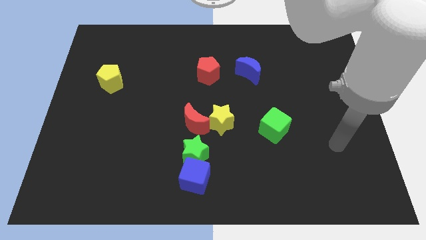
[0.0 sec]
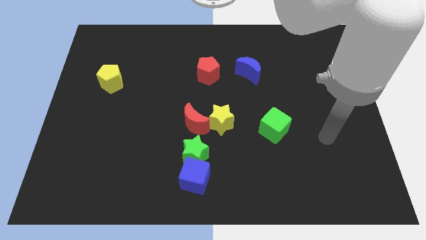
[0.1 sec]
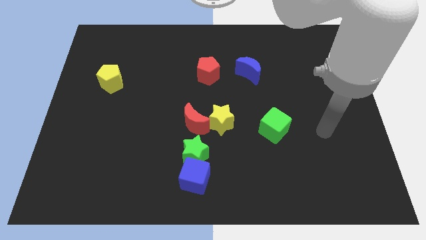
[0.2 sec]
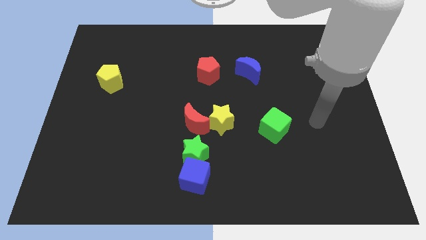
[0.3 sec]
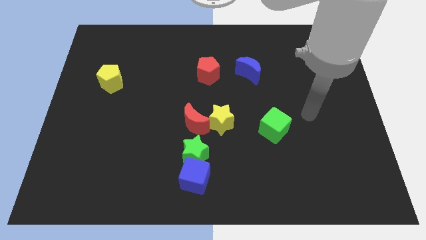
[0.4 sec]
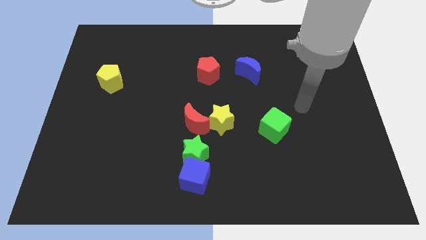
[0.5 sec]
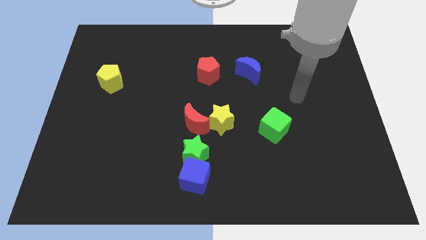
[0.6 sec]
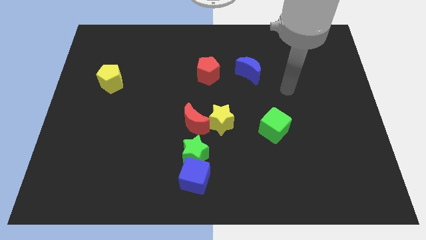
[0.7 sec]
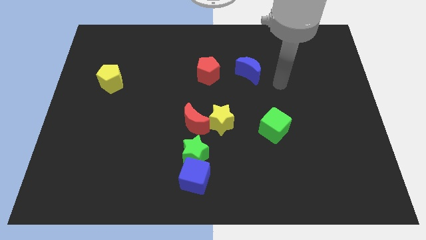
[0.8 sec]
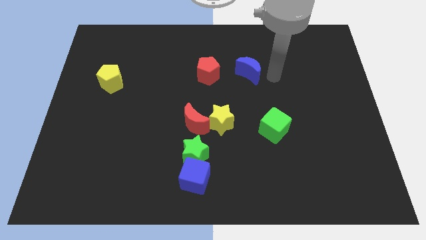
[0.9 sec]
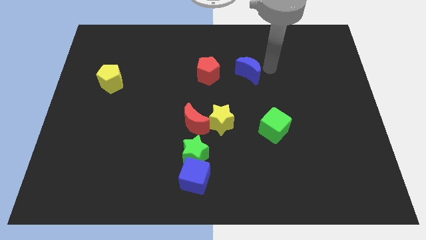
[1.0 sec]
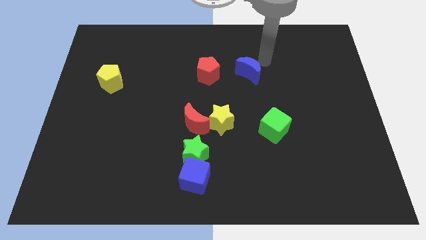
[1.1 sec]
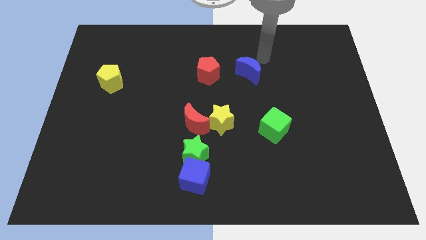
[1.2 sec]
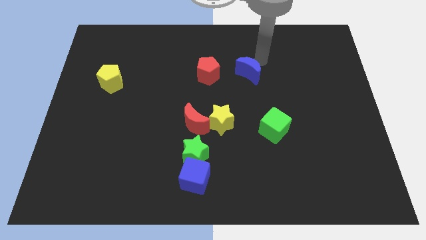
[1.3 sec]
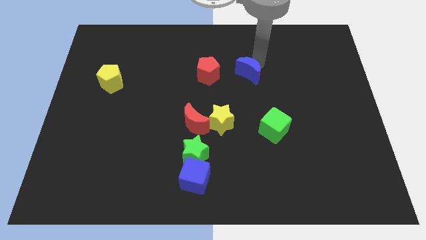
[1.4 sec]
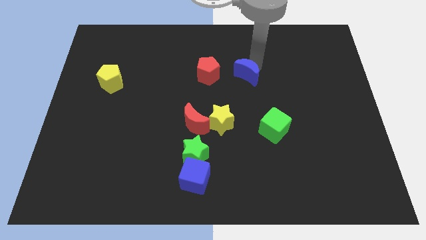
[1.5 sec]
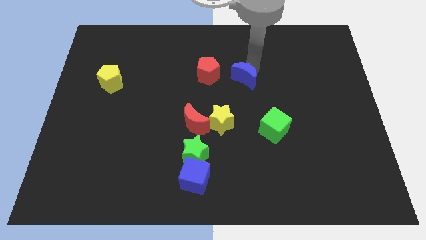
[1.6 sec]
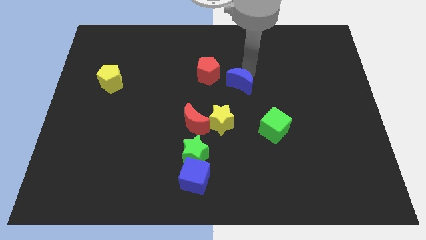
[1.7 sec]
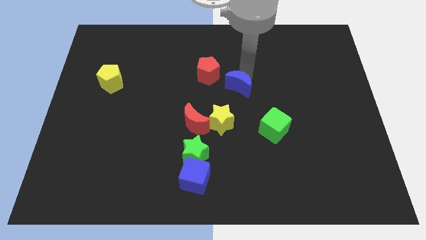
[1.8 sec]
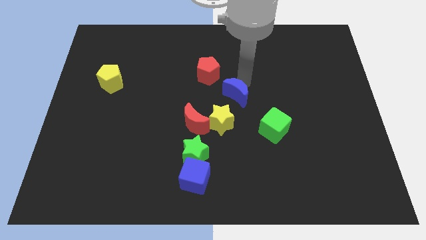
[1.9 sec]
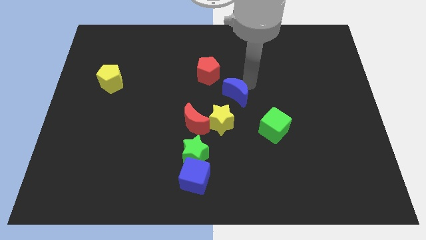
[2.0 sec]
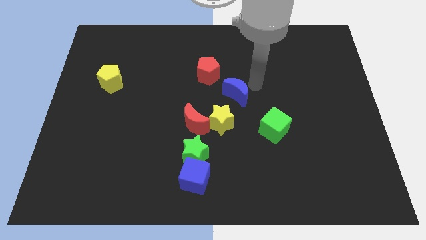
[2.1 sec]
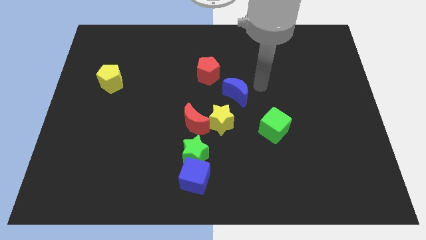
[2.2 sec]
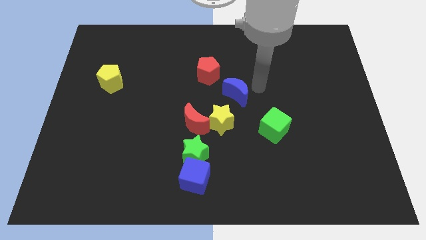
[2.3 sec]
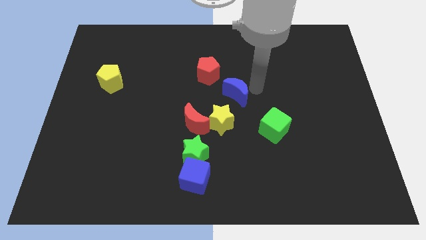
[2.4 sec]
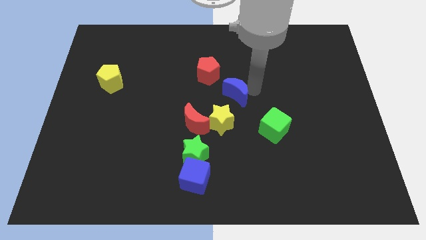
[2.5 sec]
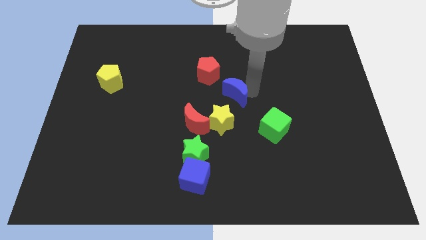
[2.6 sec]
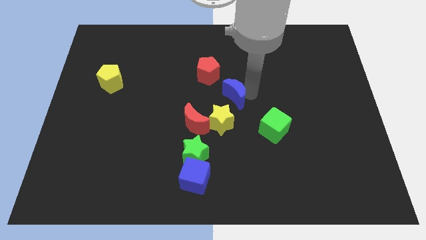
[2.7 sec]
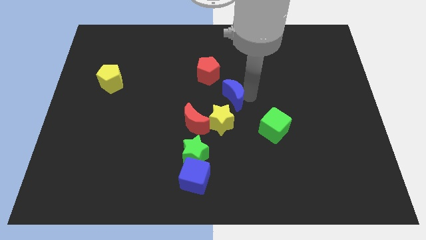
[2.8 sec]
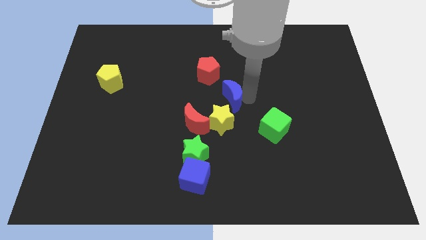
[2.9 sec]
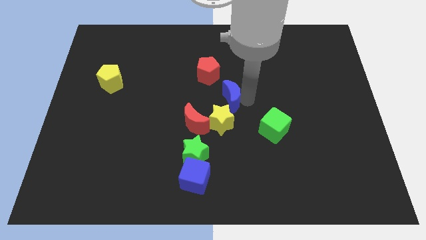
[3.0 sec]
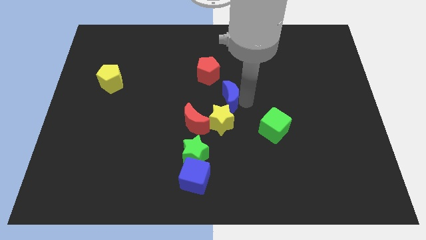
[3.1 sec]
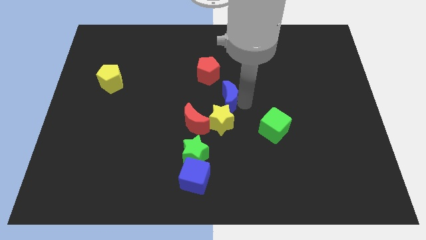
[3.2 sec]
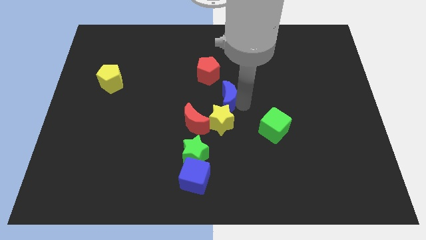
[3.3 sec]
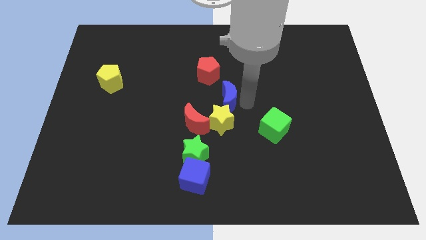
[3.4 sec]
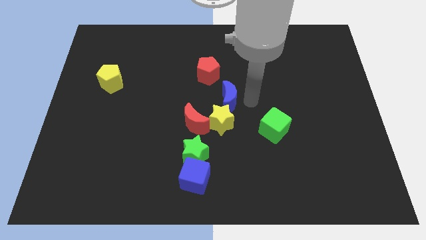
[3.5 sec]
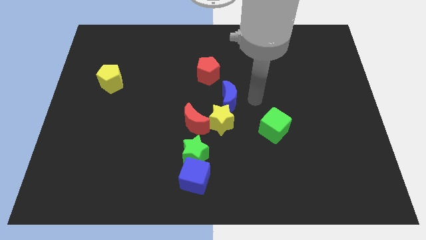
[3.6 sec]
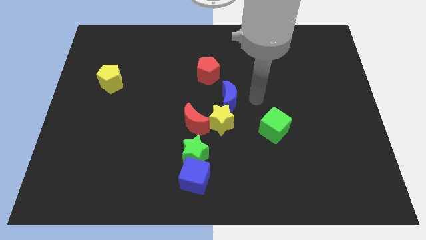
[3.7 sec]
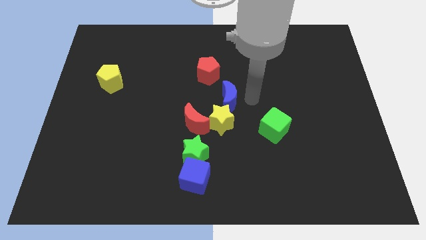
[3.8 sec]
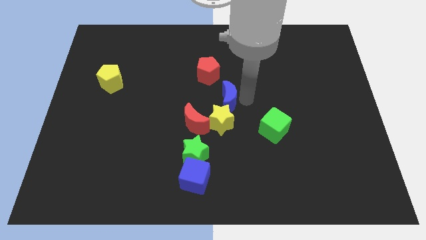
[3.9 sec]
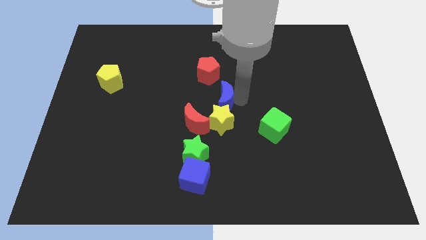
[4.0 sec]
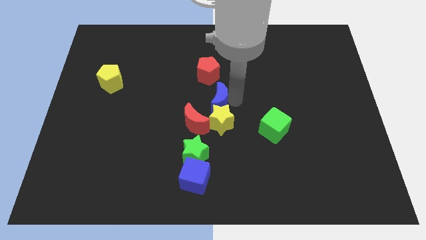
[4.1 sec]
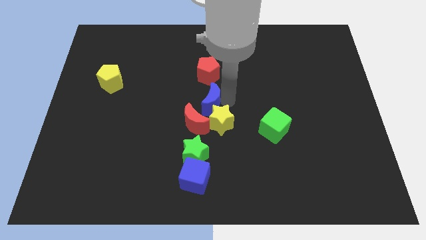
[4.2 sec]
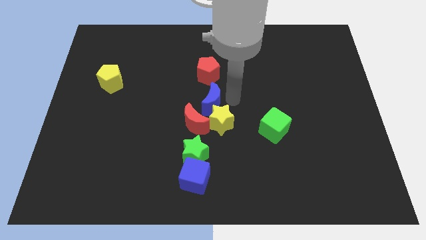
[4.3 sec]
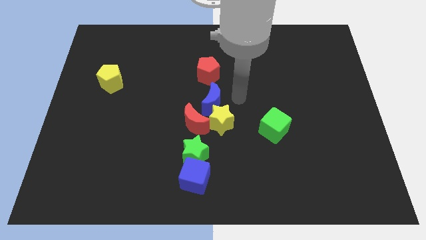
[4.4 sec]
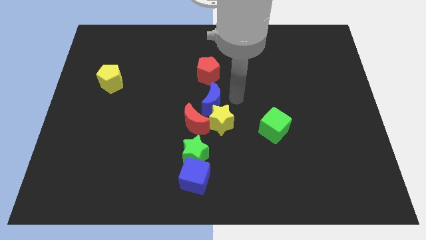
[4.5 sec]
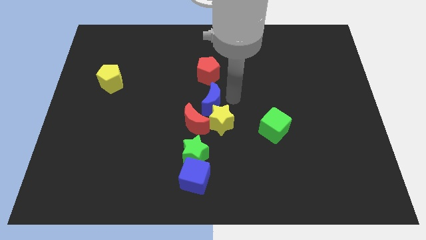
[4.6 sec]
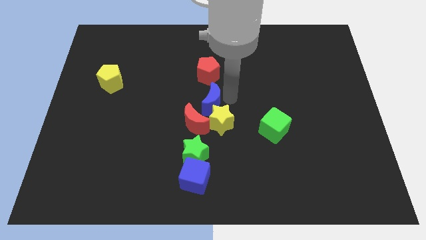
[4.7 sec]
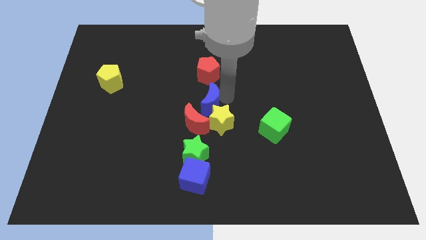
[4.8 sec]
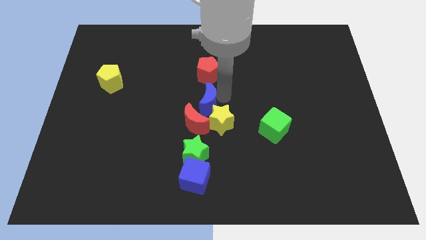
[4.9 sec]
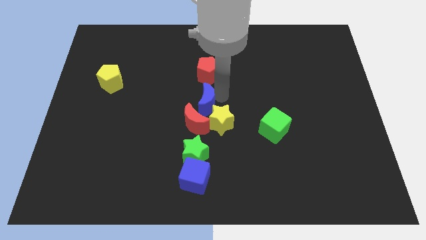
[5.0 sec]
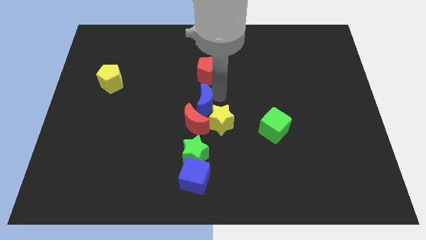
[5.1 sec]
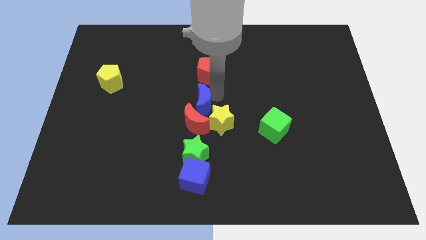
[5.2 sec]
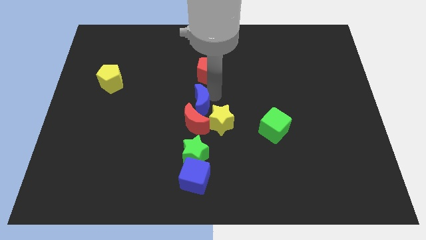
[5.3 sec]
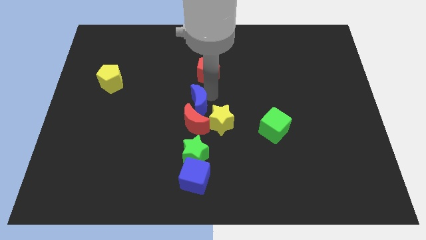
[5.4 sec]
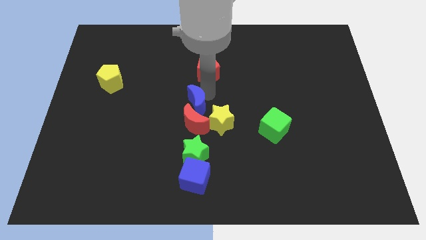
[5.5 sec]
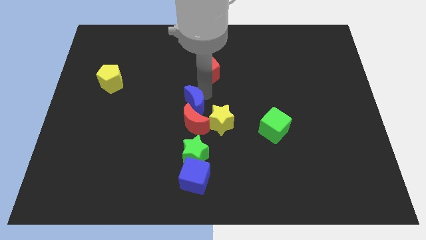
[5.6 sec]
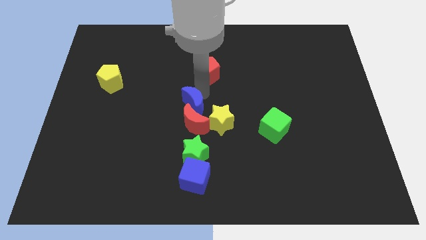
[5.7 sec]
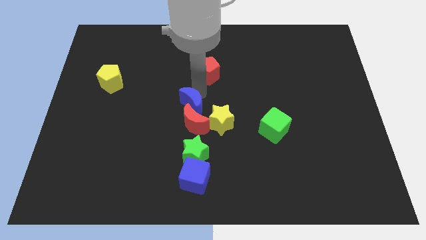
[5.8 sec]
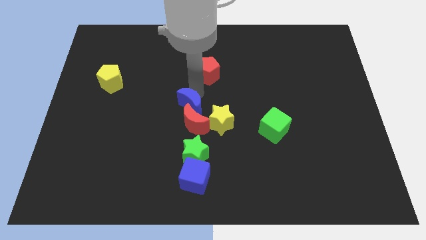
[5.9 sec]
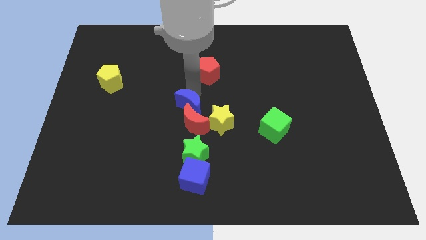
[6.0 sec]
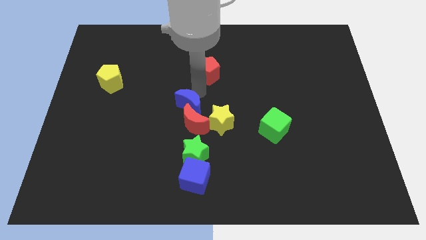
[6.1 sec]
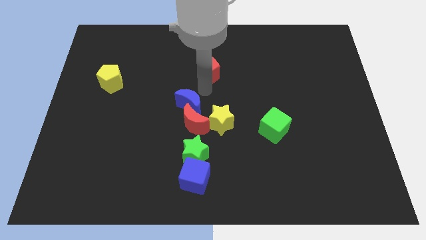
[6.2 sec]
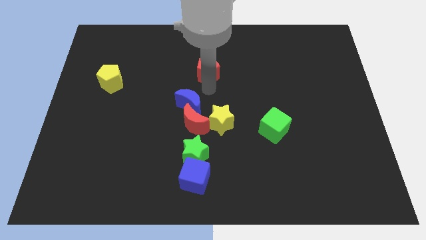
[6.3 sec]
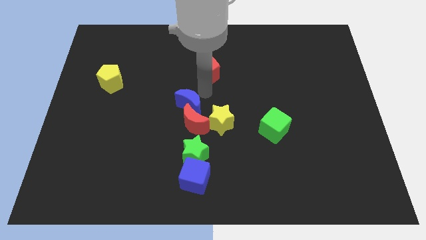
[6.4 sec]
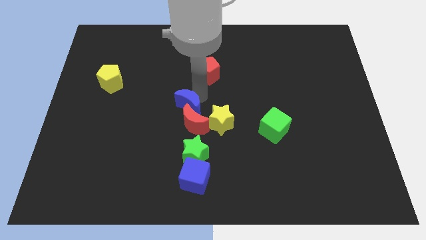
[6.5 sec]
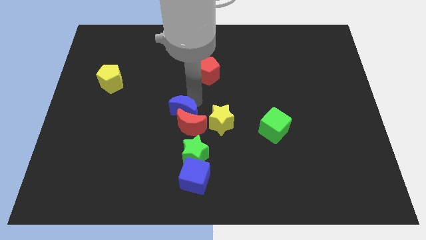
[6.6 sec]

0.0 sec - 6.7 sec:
slide the blue moon diagonally down and to the left

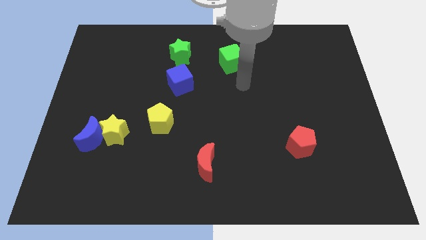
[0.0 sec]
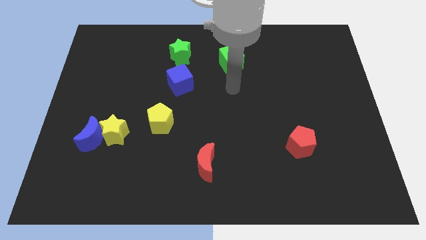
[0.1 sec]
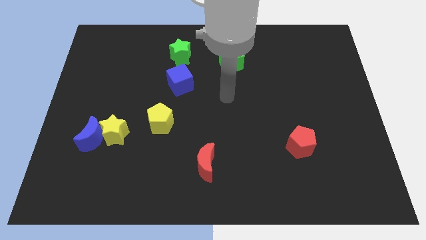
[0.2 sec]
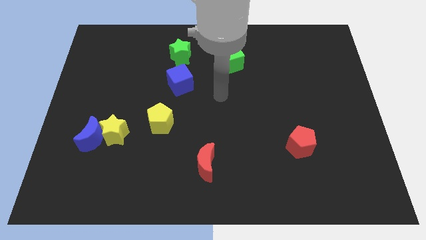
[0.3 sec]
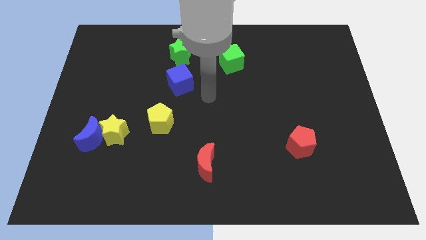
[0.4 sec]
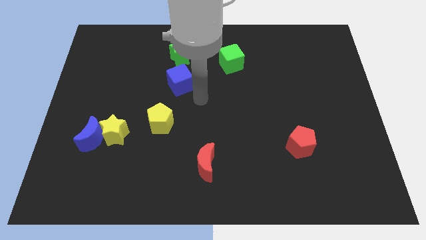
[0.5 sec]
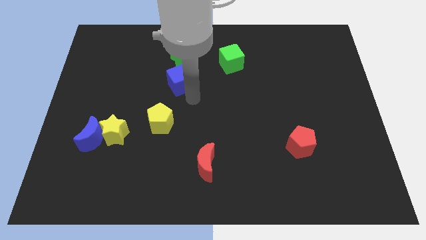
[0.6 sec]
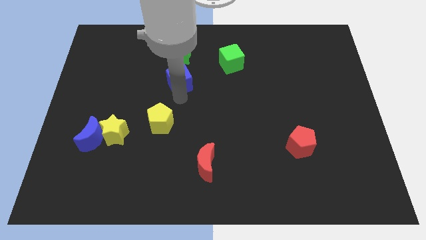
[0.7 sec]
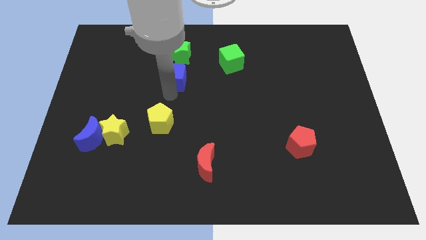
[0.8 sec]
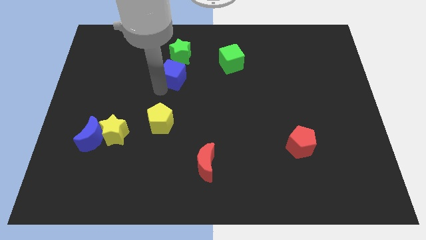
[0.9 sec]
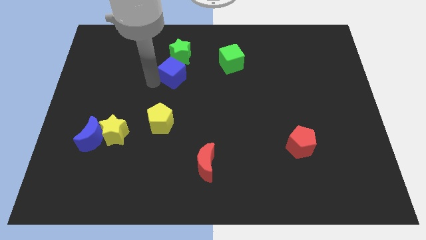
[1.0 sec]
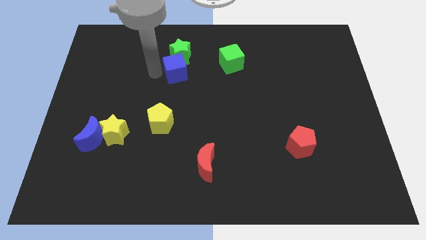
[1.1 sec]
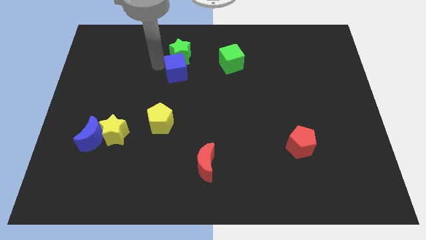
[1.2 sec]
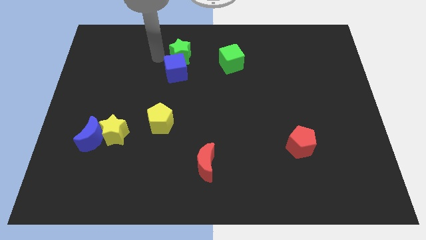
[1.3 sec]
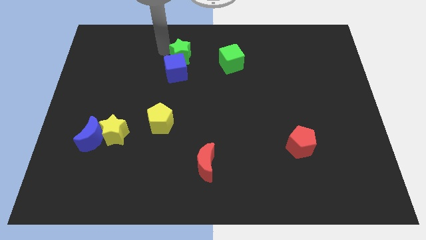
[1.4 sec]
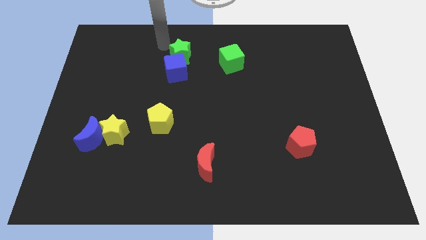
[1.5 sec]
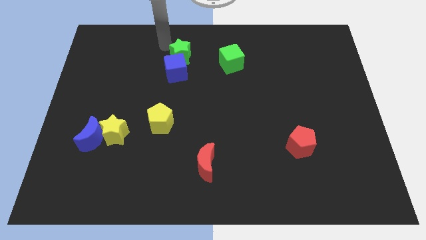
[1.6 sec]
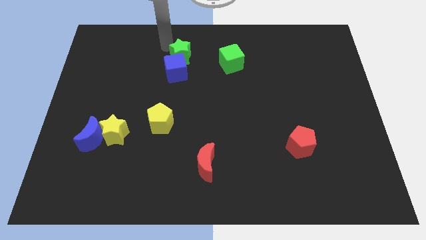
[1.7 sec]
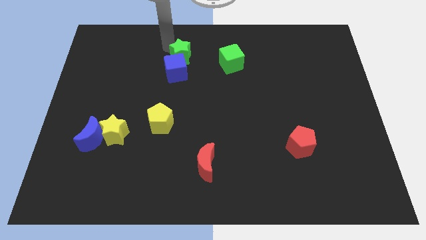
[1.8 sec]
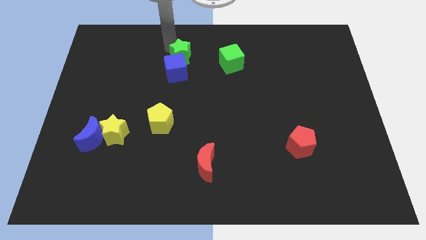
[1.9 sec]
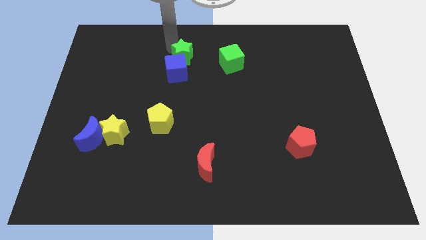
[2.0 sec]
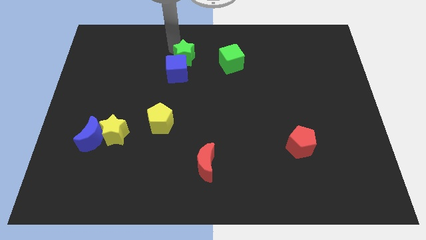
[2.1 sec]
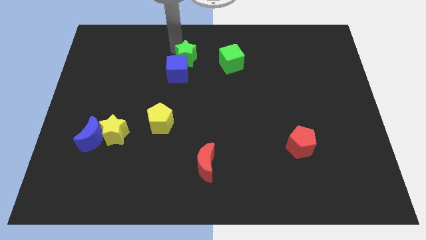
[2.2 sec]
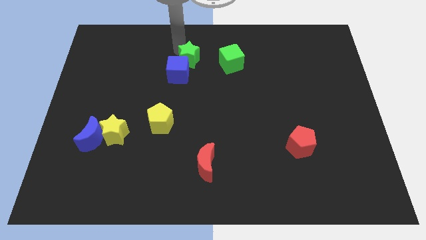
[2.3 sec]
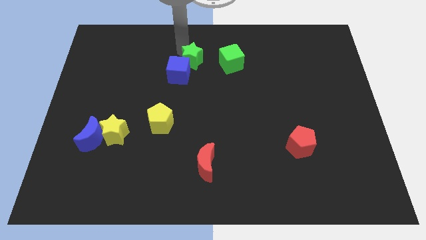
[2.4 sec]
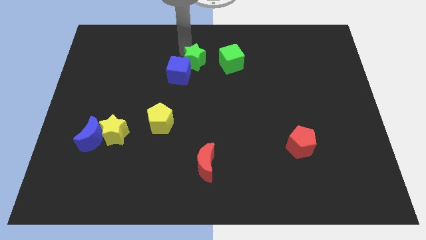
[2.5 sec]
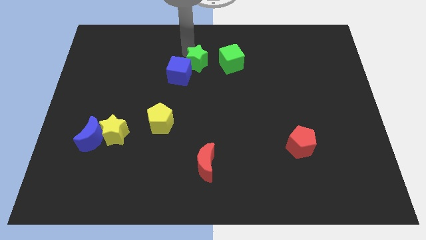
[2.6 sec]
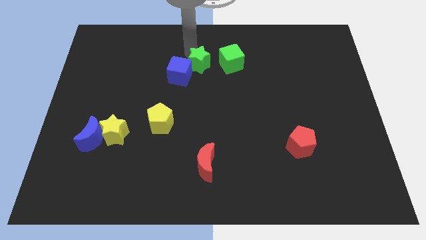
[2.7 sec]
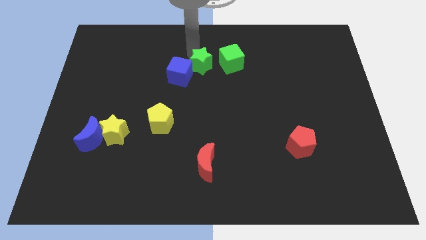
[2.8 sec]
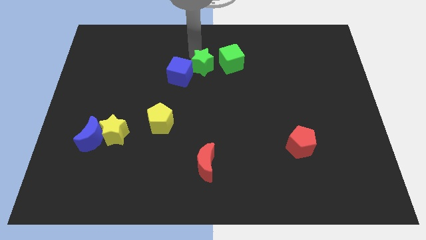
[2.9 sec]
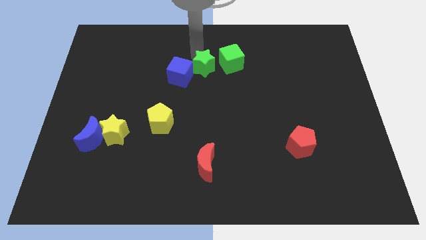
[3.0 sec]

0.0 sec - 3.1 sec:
slightly push the green star down and then to the right
